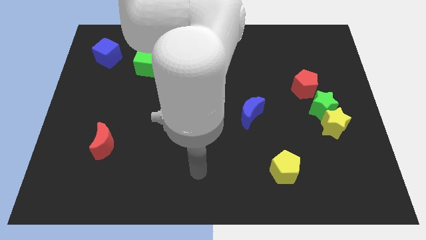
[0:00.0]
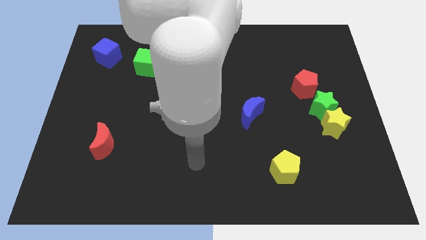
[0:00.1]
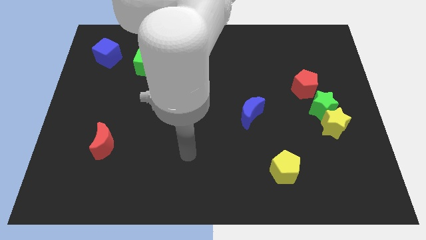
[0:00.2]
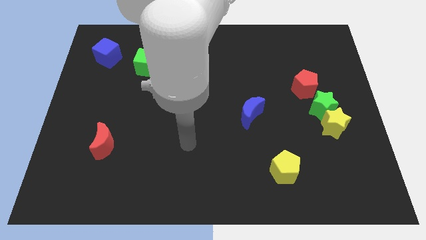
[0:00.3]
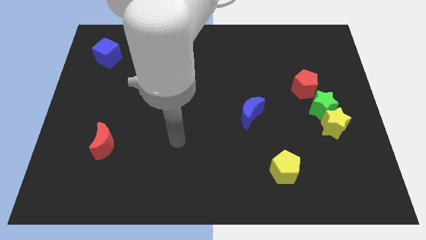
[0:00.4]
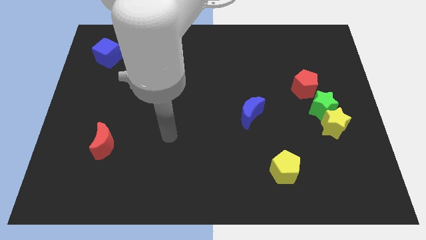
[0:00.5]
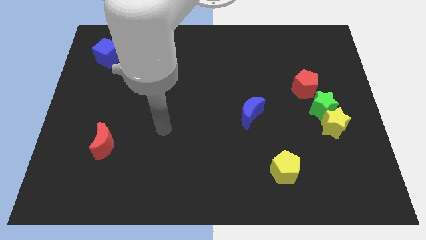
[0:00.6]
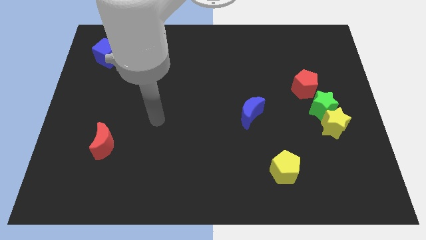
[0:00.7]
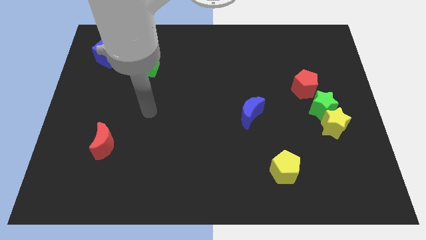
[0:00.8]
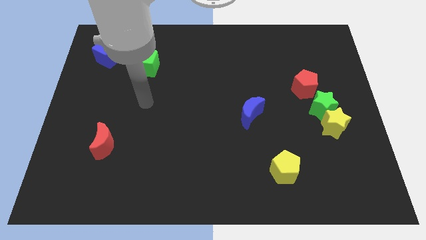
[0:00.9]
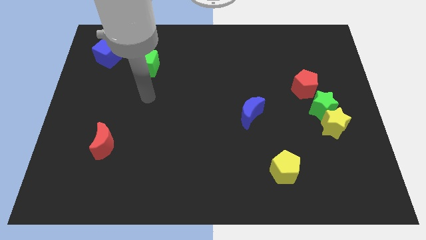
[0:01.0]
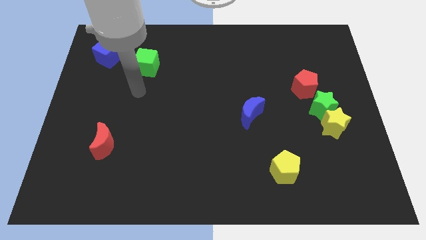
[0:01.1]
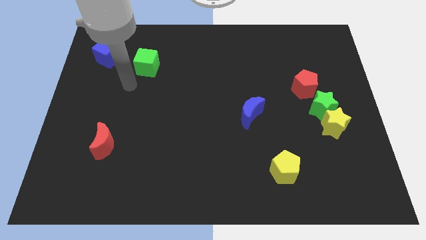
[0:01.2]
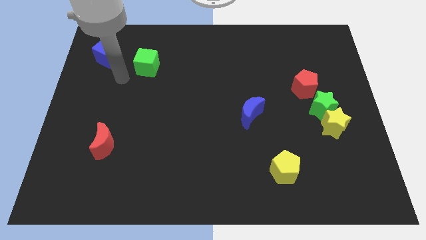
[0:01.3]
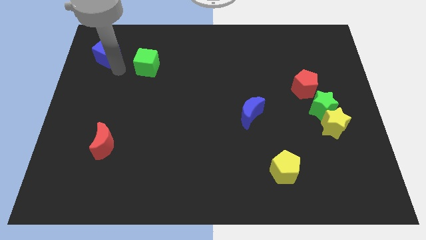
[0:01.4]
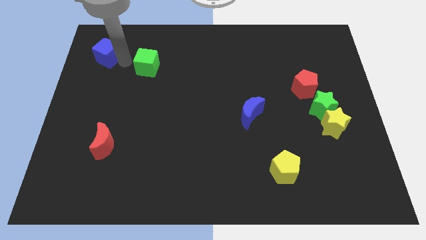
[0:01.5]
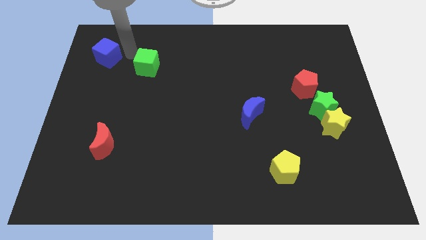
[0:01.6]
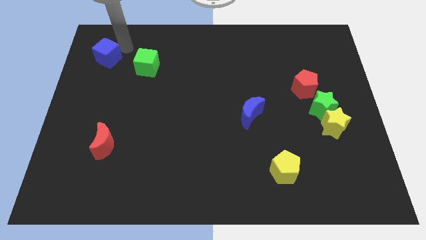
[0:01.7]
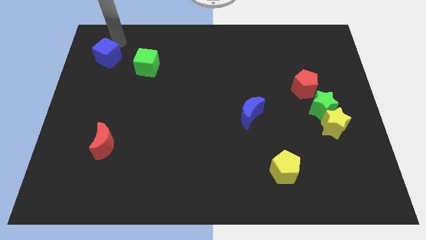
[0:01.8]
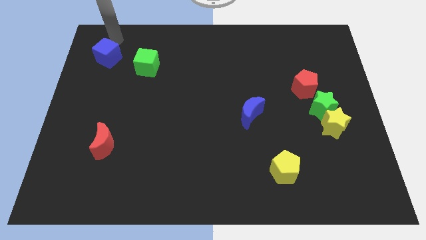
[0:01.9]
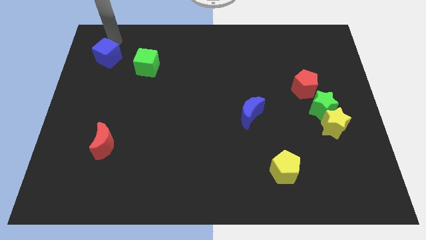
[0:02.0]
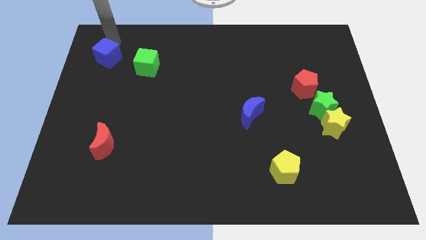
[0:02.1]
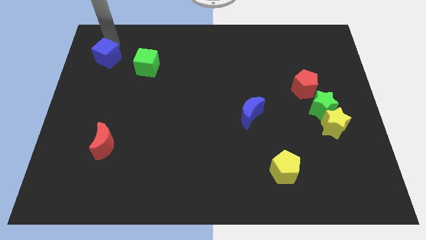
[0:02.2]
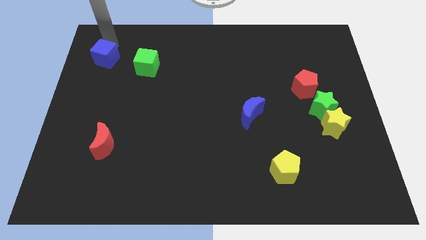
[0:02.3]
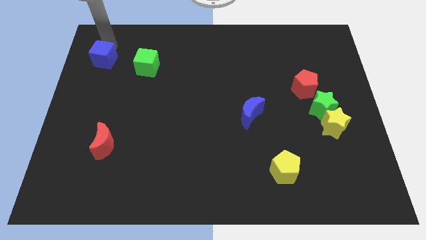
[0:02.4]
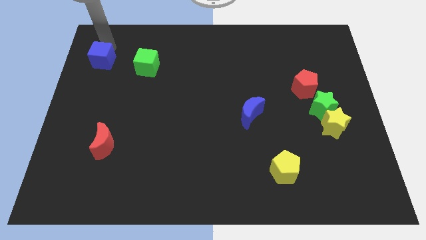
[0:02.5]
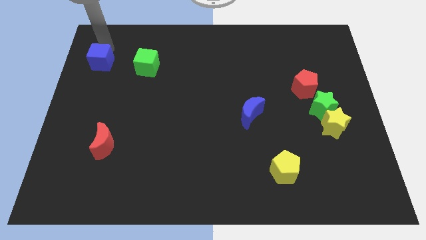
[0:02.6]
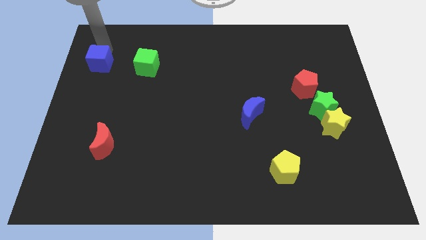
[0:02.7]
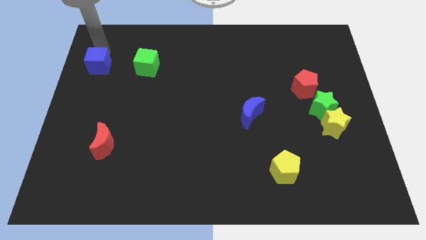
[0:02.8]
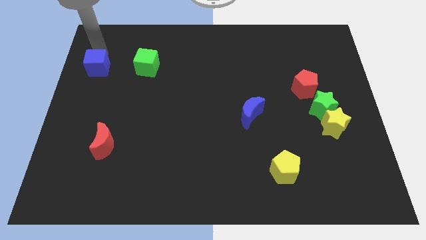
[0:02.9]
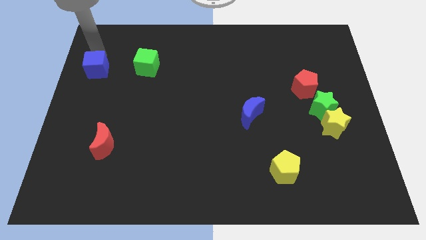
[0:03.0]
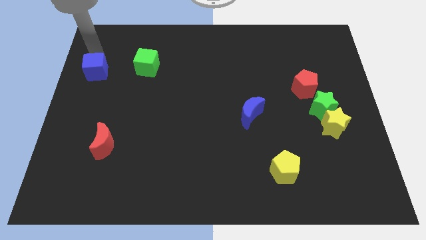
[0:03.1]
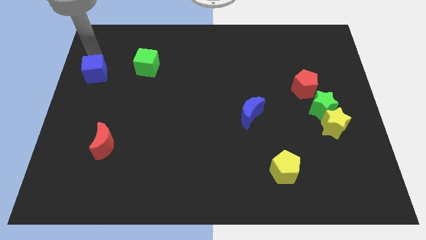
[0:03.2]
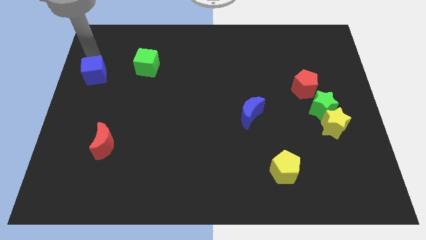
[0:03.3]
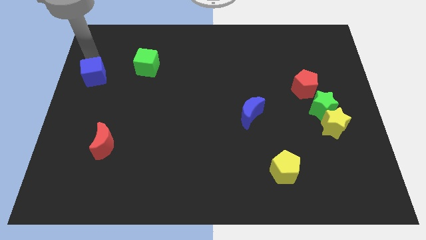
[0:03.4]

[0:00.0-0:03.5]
slide the blue cube a bit down

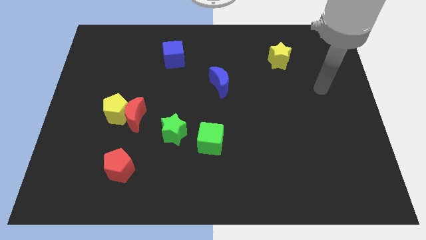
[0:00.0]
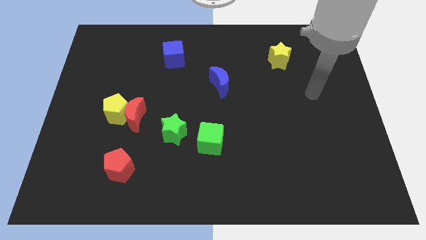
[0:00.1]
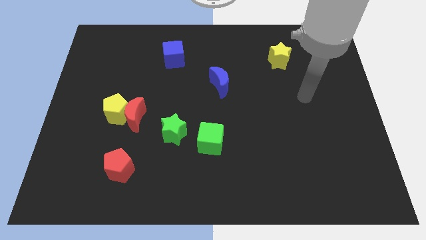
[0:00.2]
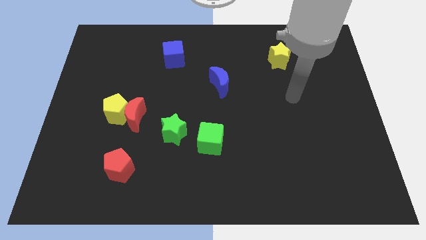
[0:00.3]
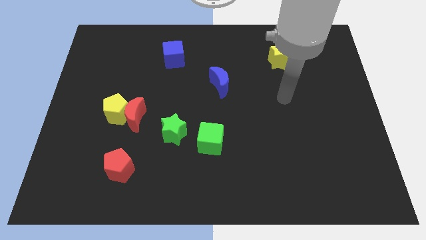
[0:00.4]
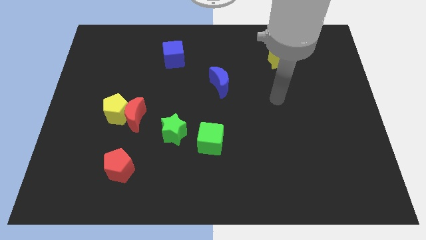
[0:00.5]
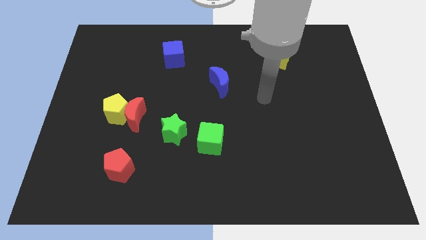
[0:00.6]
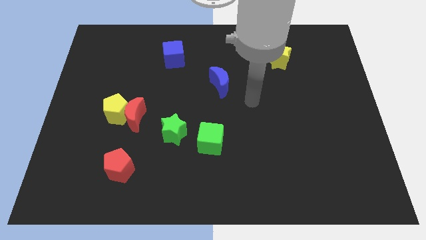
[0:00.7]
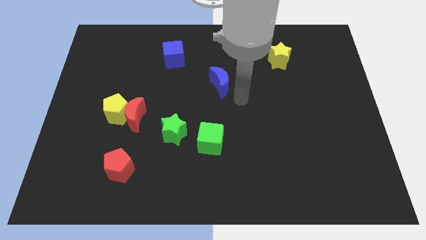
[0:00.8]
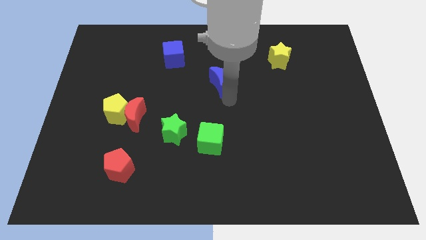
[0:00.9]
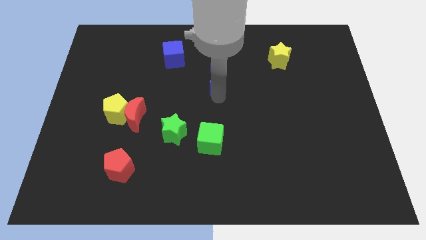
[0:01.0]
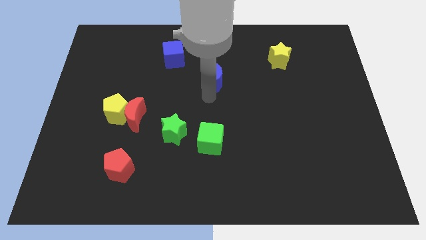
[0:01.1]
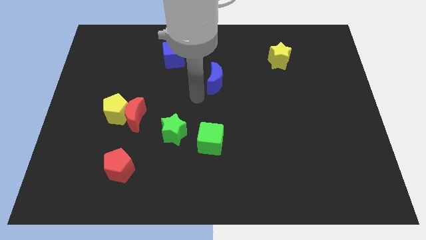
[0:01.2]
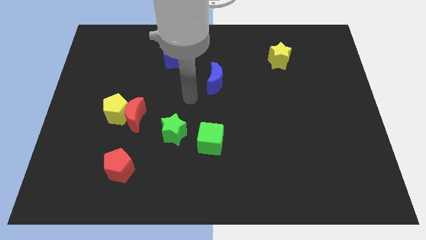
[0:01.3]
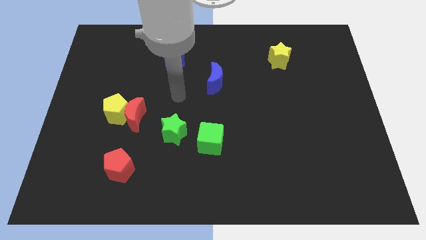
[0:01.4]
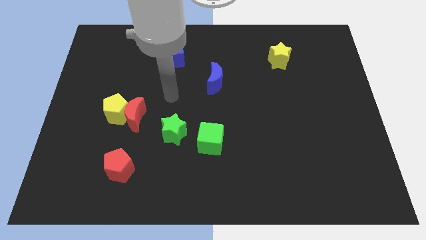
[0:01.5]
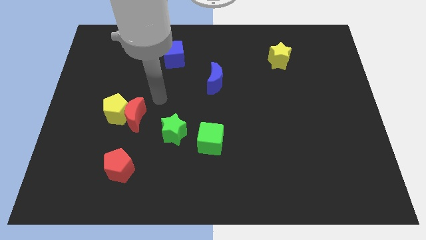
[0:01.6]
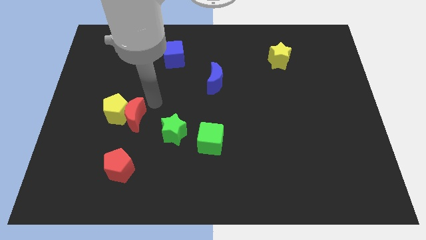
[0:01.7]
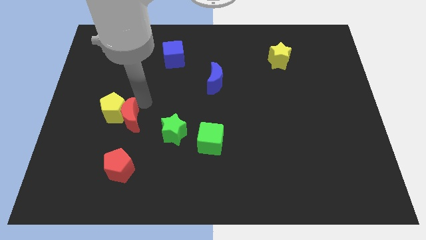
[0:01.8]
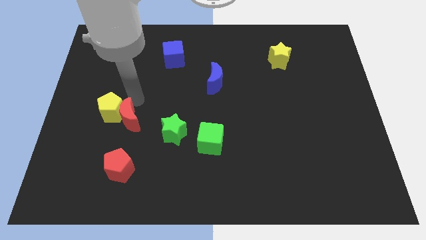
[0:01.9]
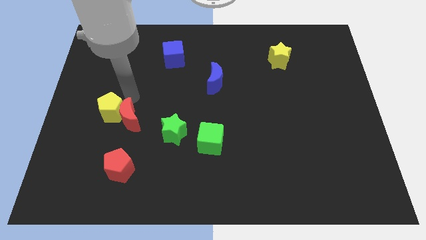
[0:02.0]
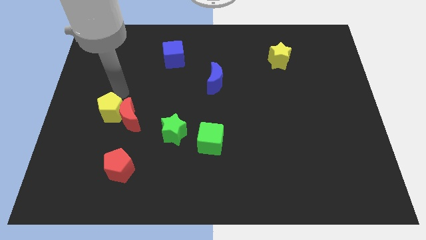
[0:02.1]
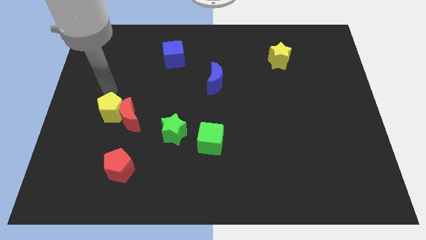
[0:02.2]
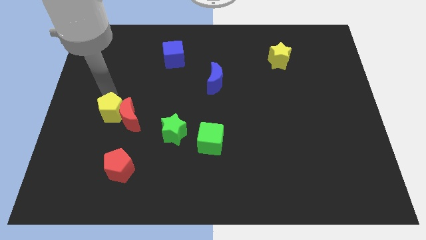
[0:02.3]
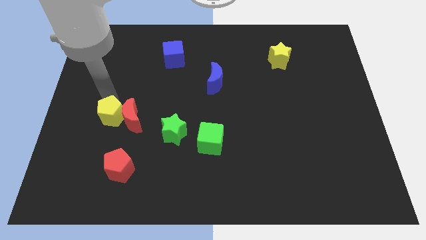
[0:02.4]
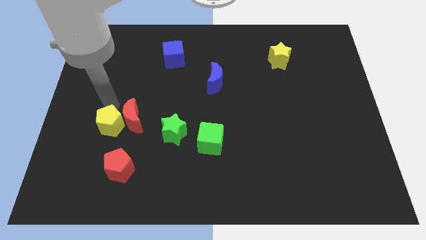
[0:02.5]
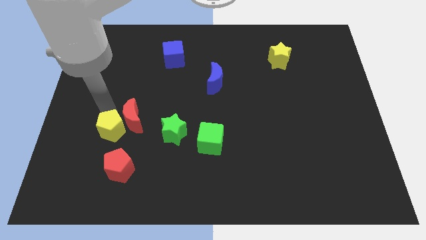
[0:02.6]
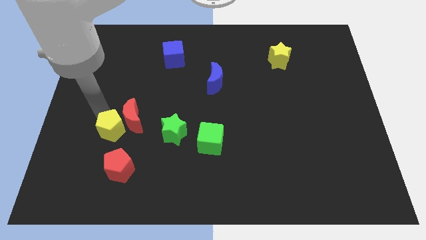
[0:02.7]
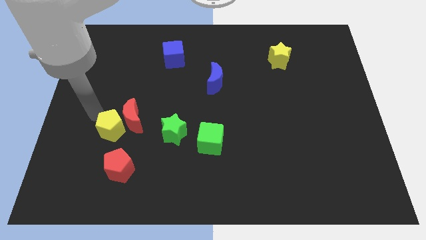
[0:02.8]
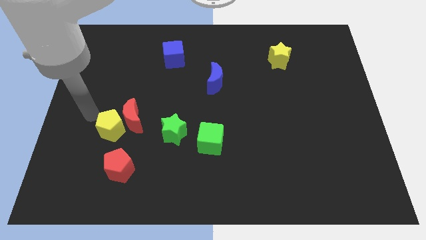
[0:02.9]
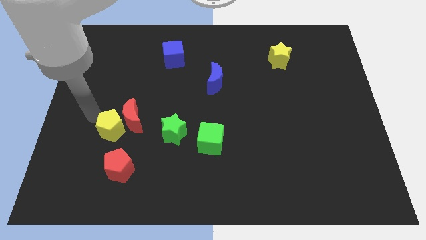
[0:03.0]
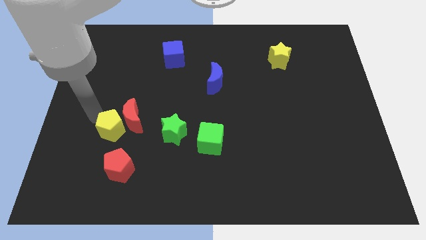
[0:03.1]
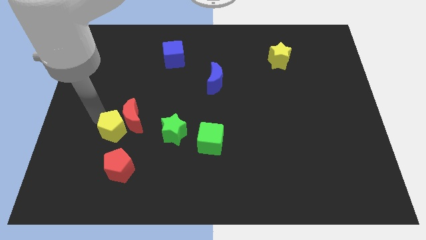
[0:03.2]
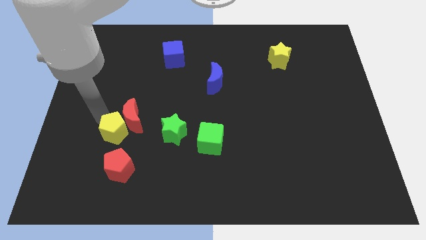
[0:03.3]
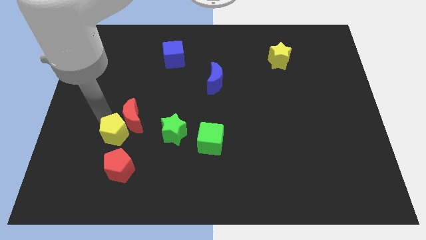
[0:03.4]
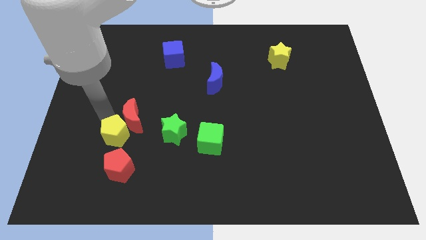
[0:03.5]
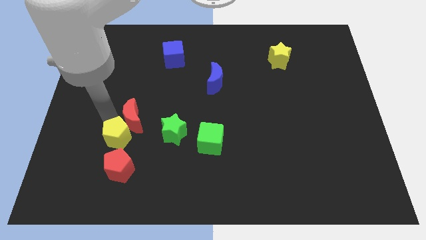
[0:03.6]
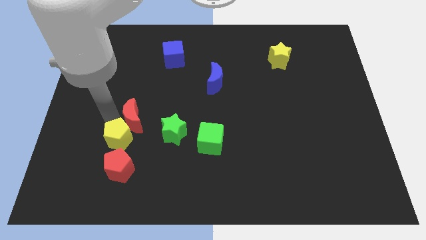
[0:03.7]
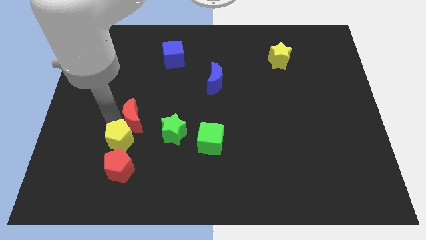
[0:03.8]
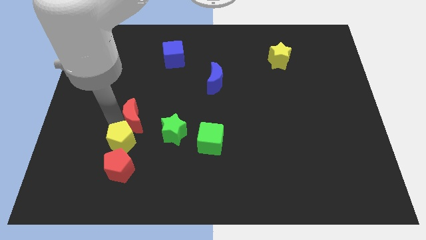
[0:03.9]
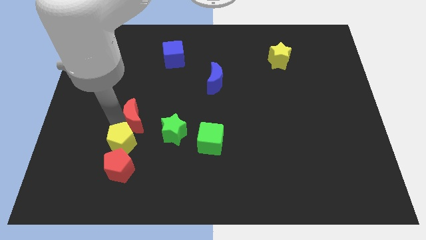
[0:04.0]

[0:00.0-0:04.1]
slide the yellow pentagon down and then to the right a bit

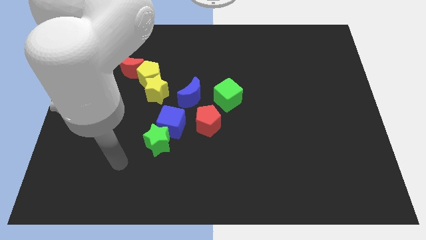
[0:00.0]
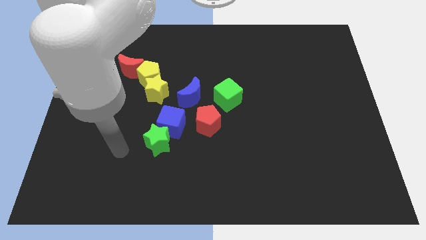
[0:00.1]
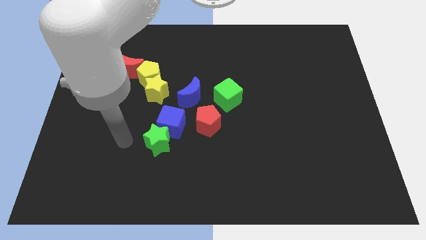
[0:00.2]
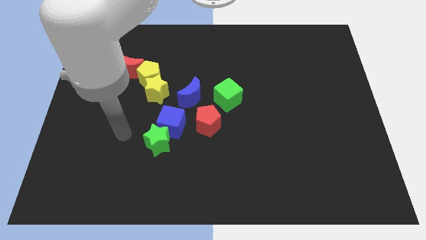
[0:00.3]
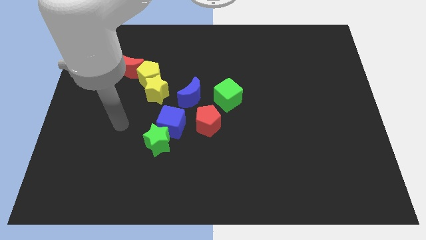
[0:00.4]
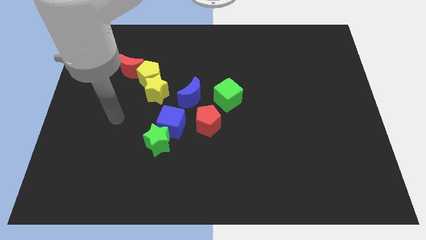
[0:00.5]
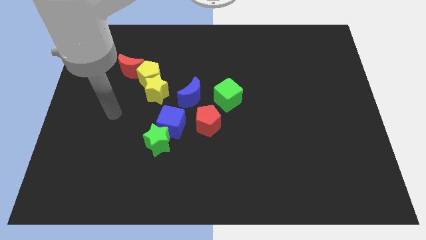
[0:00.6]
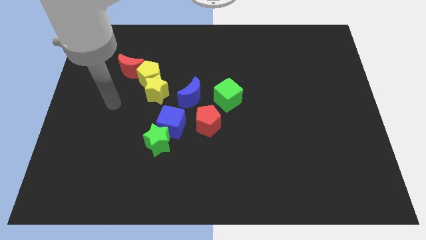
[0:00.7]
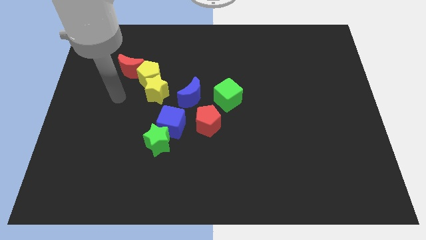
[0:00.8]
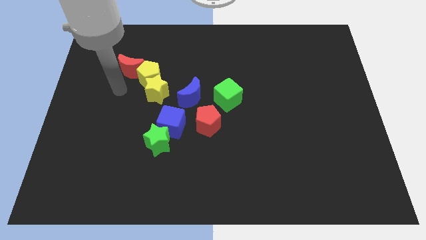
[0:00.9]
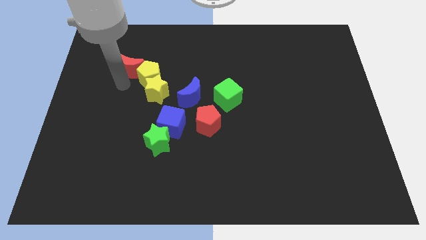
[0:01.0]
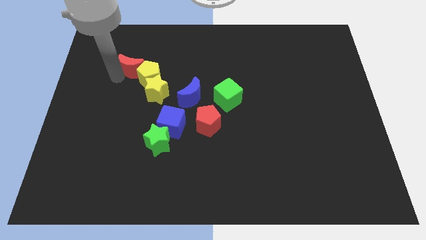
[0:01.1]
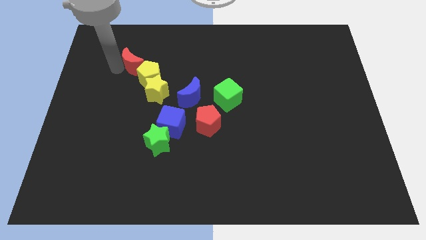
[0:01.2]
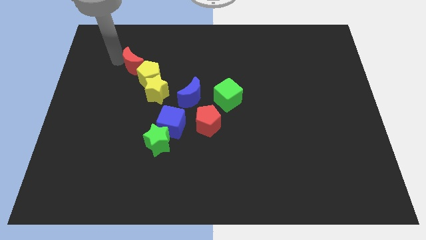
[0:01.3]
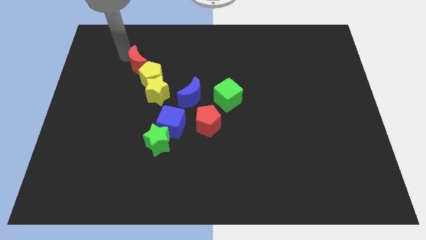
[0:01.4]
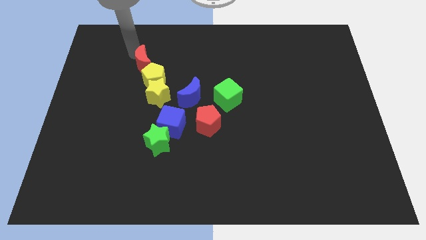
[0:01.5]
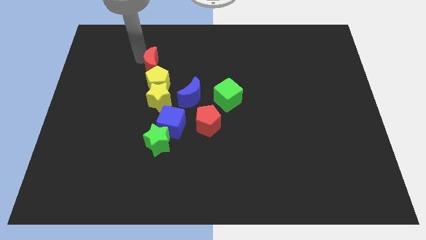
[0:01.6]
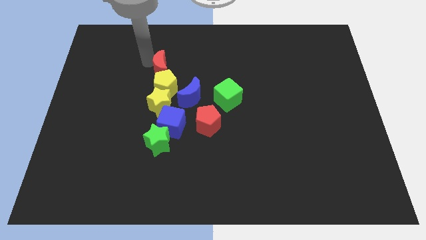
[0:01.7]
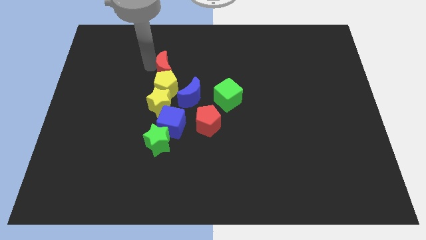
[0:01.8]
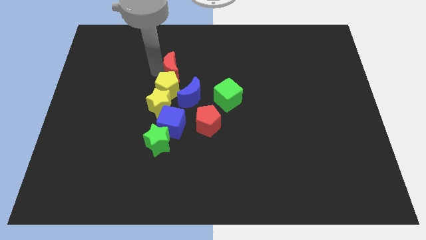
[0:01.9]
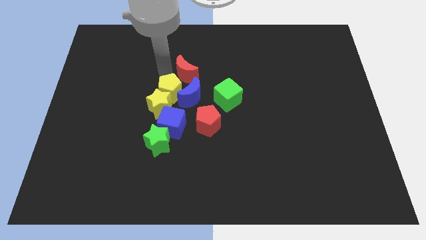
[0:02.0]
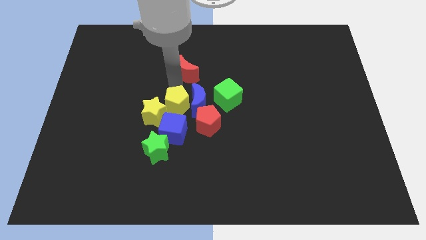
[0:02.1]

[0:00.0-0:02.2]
slightly slide the yellow star downwards
